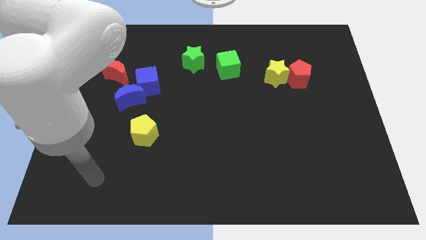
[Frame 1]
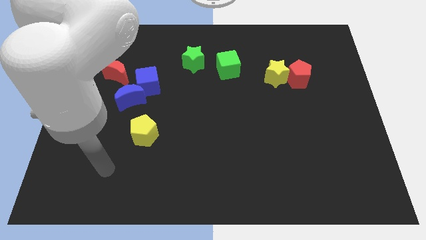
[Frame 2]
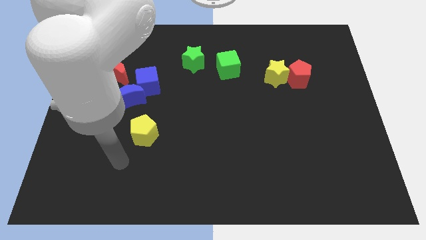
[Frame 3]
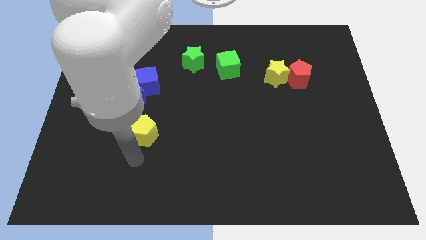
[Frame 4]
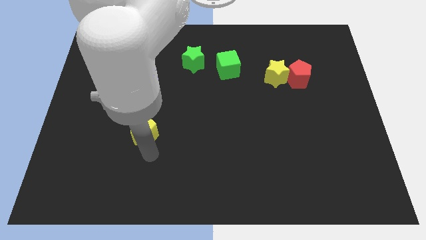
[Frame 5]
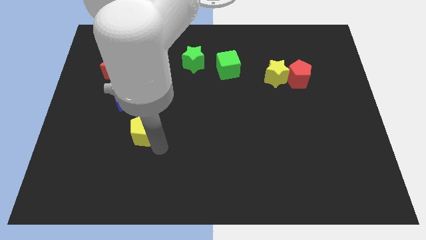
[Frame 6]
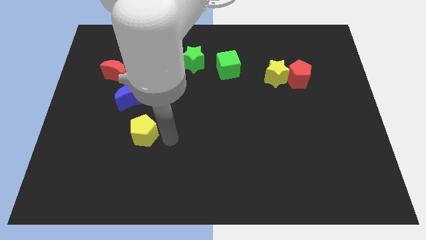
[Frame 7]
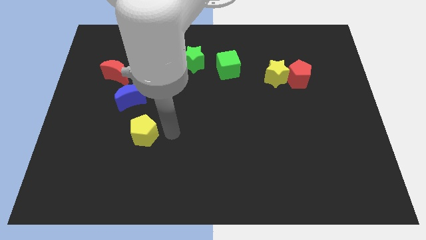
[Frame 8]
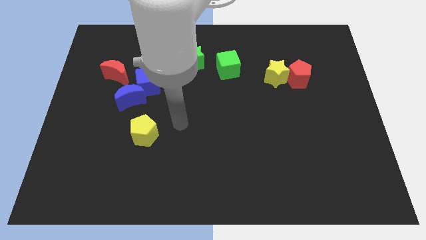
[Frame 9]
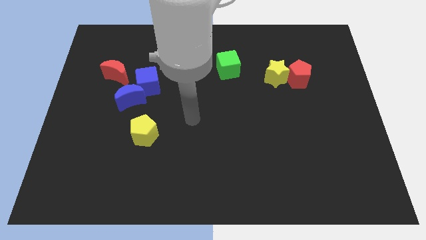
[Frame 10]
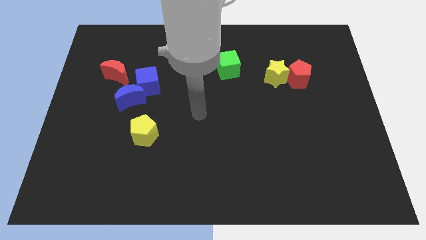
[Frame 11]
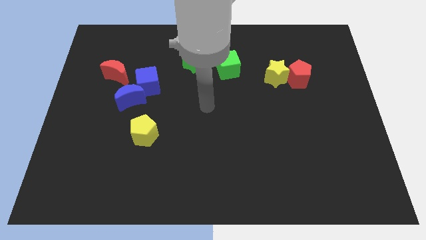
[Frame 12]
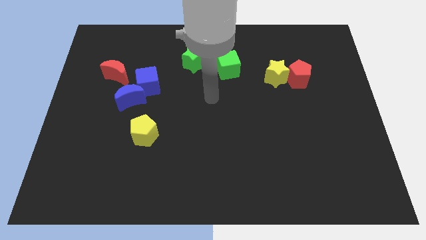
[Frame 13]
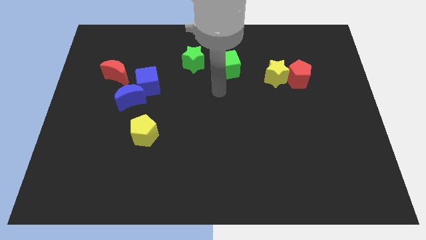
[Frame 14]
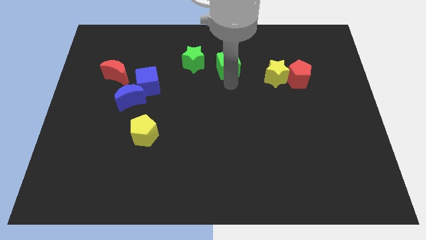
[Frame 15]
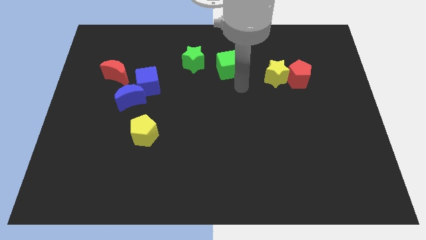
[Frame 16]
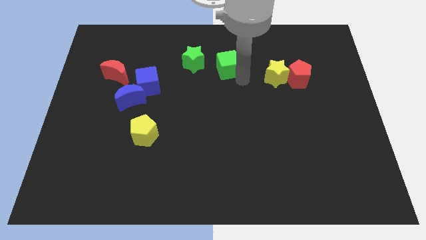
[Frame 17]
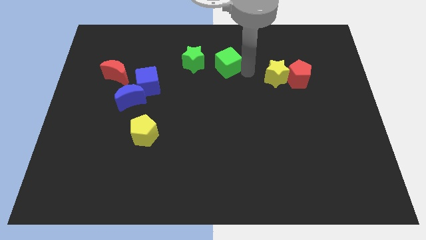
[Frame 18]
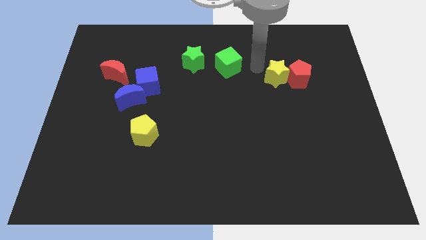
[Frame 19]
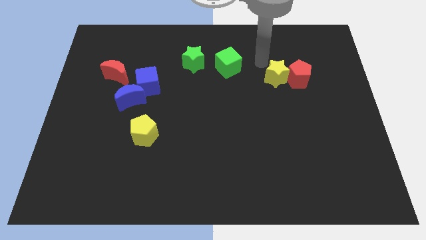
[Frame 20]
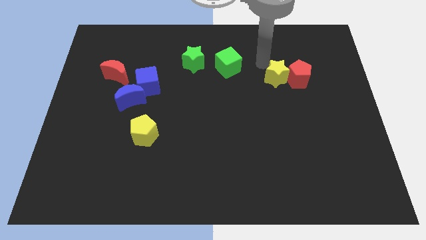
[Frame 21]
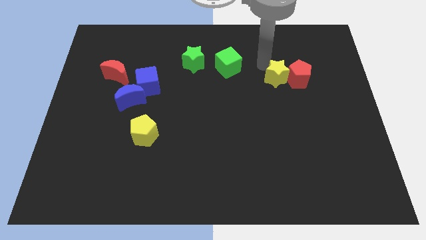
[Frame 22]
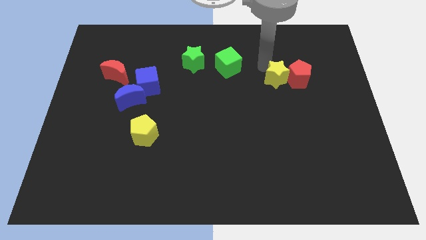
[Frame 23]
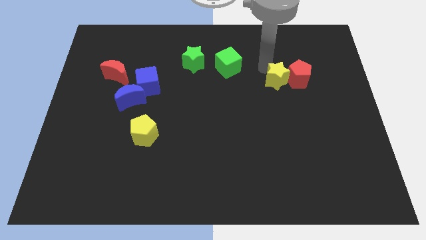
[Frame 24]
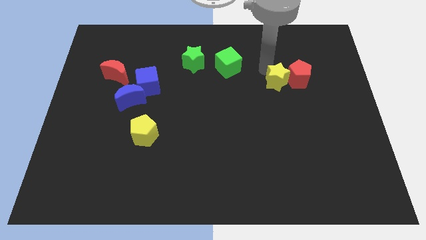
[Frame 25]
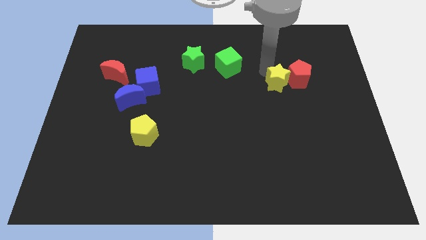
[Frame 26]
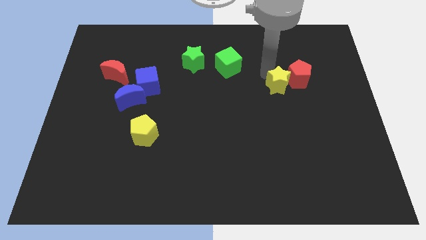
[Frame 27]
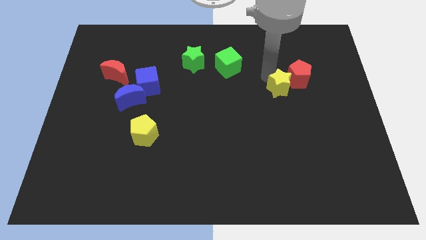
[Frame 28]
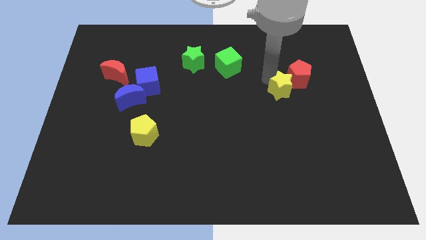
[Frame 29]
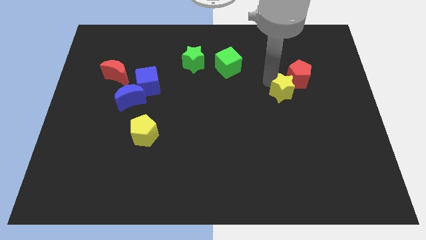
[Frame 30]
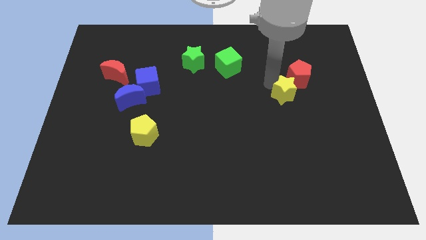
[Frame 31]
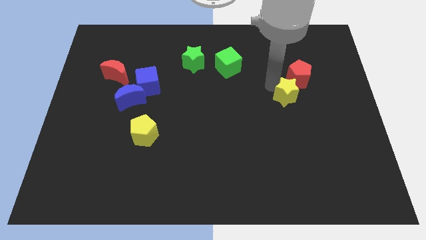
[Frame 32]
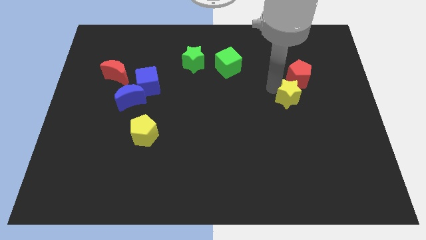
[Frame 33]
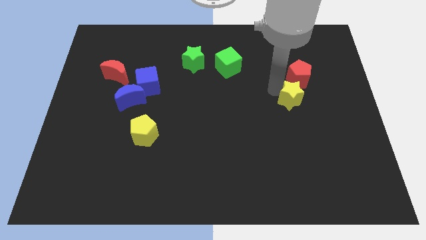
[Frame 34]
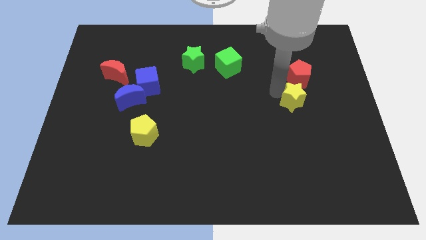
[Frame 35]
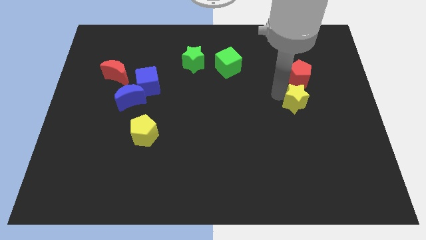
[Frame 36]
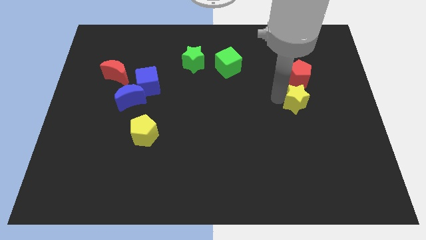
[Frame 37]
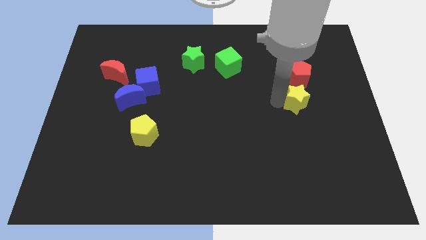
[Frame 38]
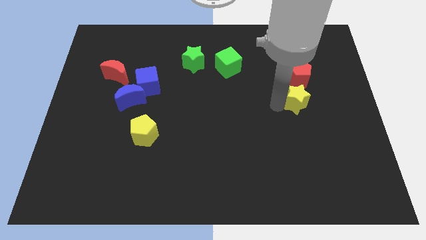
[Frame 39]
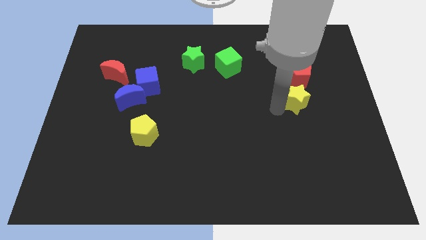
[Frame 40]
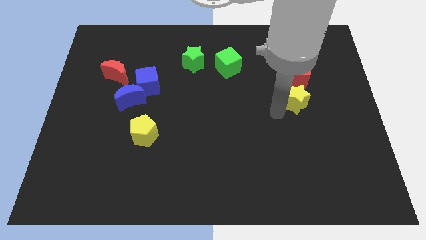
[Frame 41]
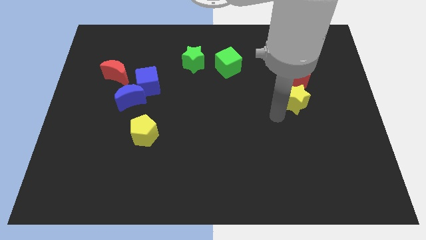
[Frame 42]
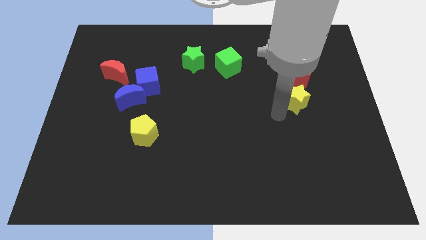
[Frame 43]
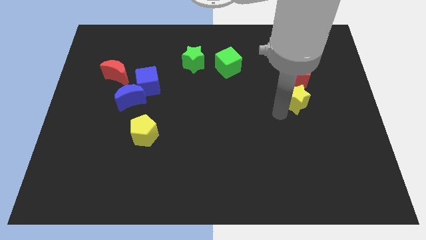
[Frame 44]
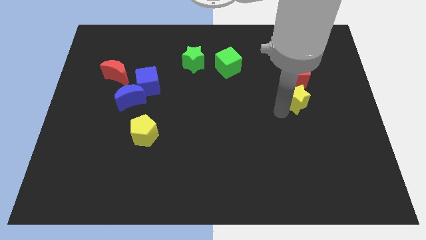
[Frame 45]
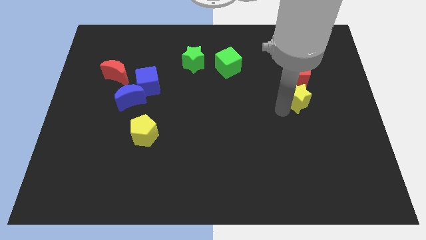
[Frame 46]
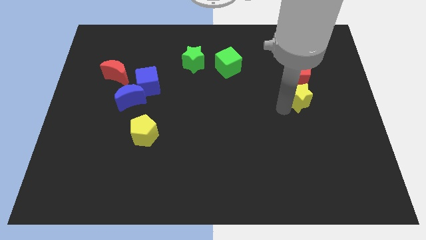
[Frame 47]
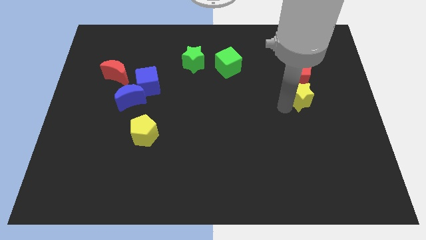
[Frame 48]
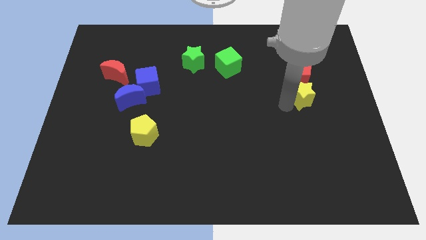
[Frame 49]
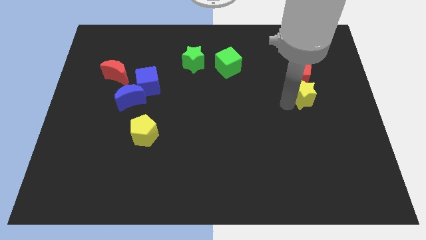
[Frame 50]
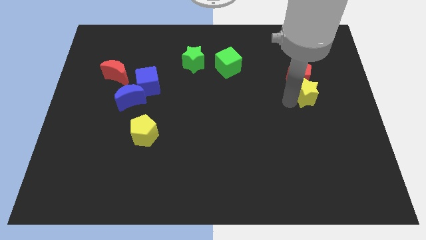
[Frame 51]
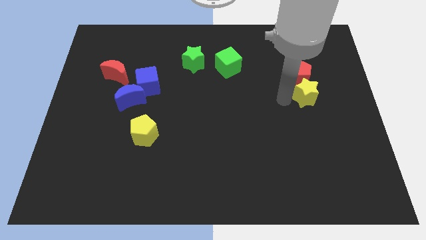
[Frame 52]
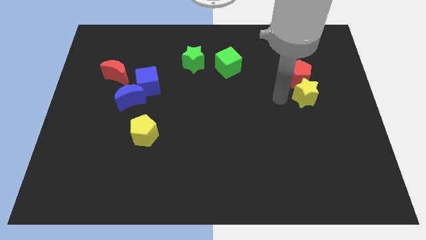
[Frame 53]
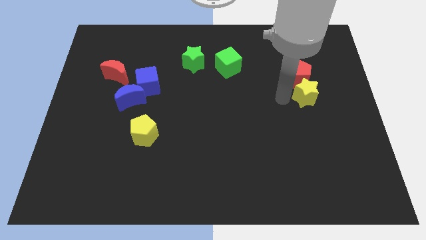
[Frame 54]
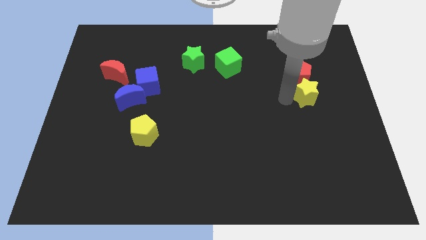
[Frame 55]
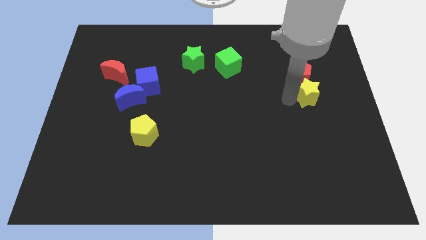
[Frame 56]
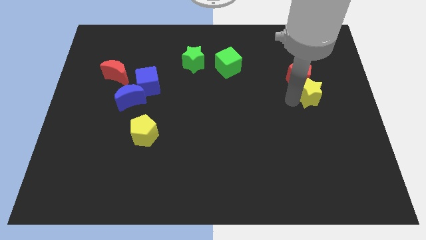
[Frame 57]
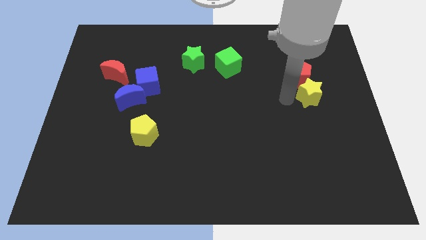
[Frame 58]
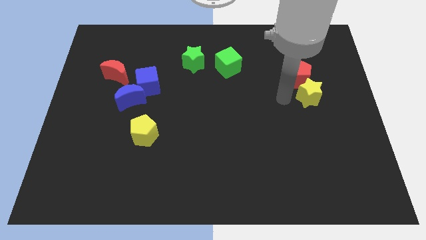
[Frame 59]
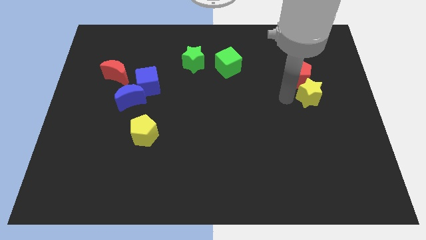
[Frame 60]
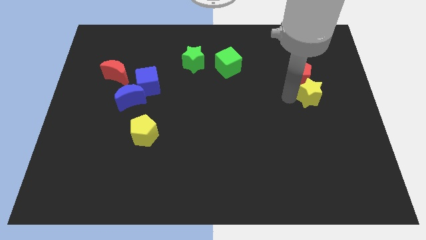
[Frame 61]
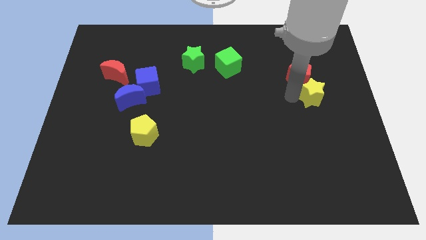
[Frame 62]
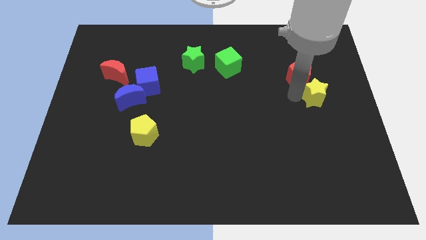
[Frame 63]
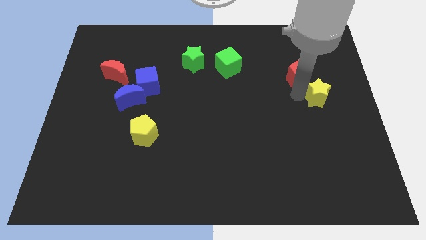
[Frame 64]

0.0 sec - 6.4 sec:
move the yellow star to the center right

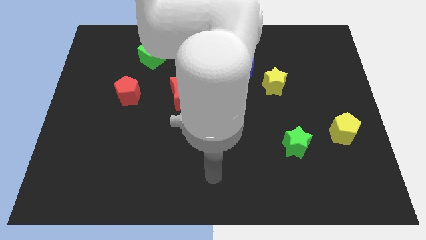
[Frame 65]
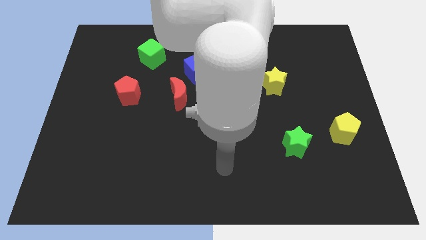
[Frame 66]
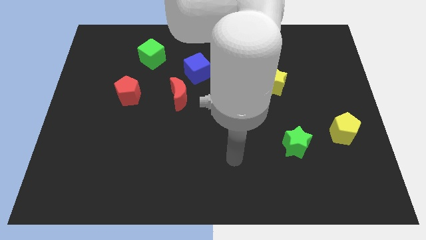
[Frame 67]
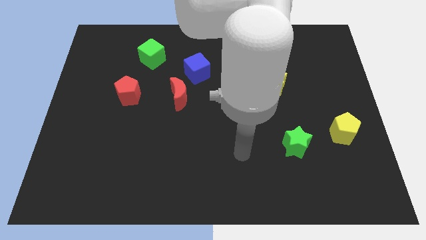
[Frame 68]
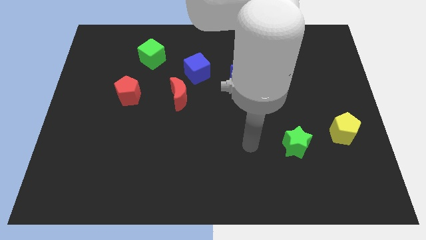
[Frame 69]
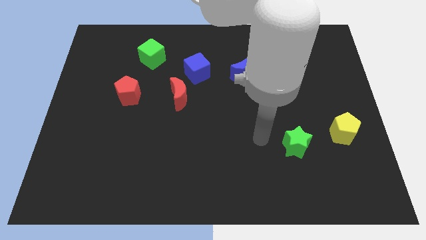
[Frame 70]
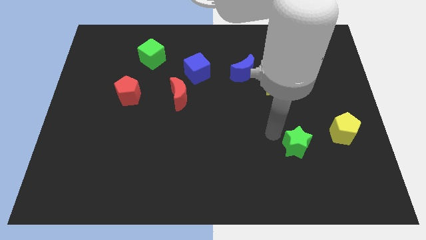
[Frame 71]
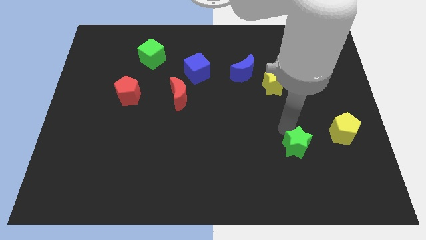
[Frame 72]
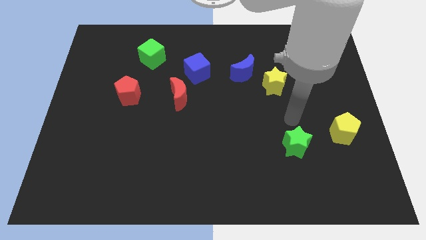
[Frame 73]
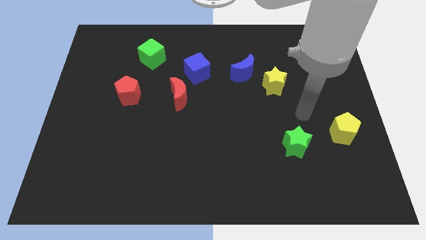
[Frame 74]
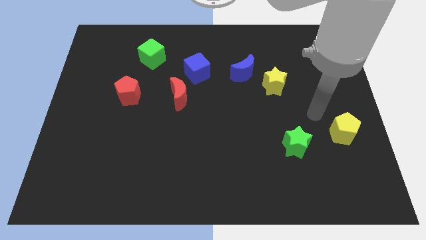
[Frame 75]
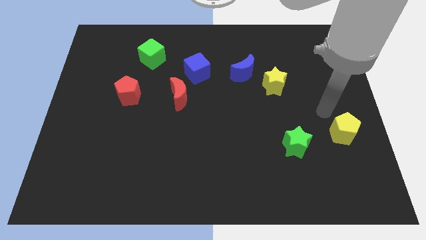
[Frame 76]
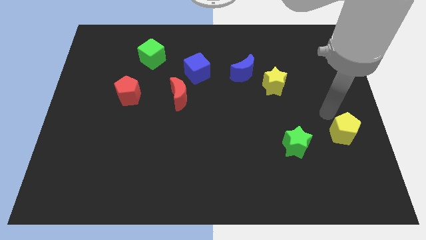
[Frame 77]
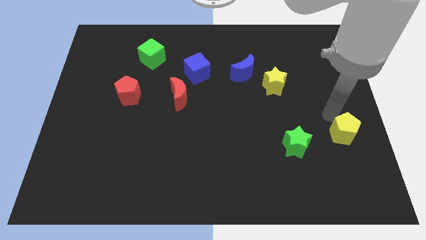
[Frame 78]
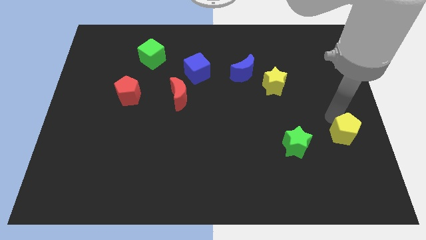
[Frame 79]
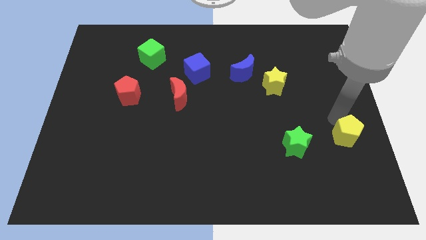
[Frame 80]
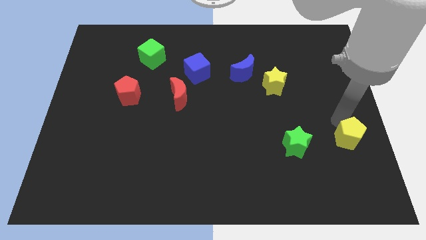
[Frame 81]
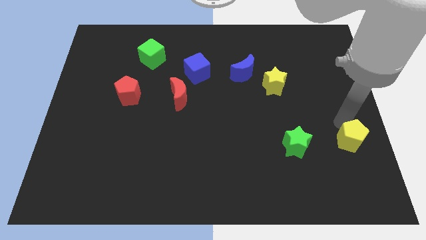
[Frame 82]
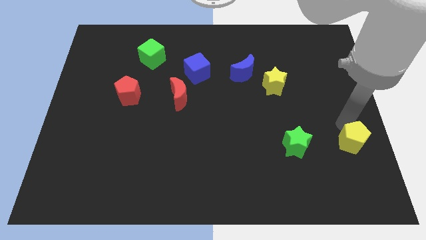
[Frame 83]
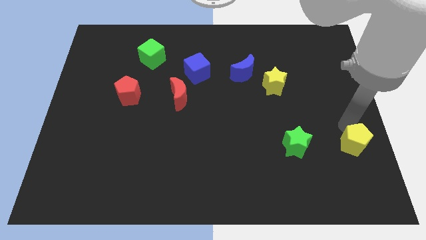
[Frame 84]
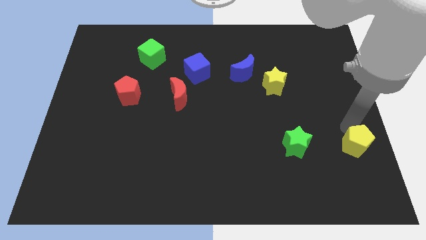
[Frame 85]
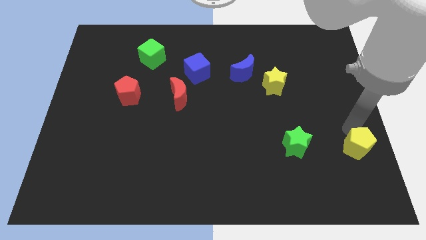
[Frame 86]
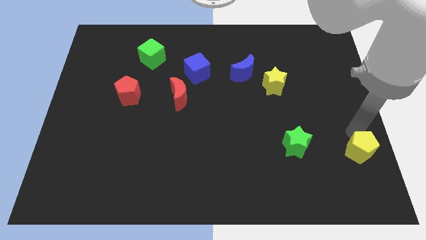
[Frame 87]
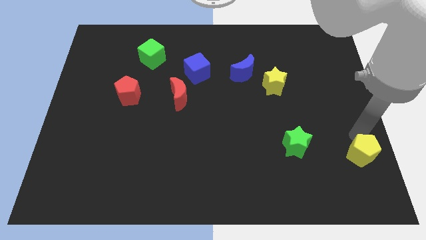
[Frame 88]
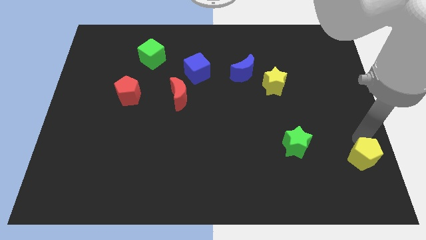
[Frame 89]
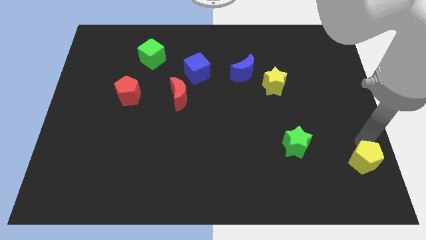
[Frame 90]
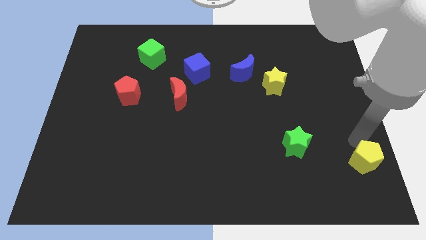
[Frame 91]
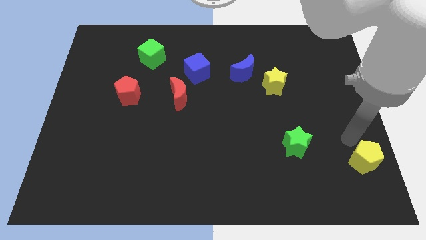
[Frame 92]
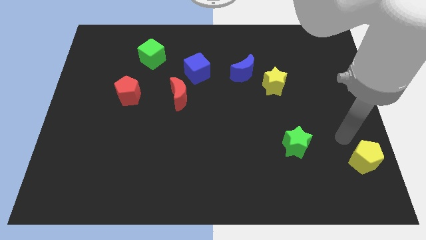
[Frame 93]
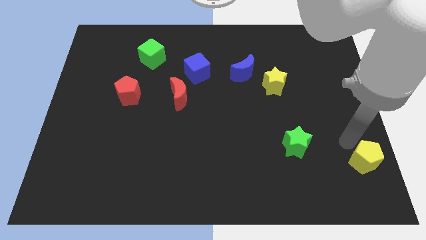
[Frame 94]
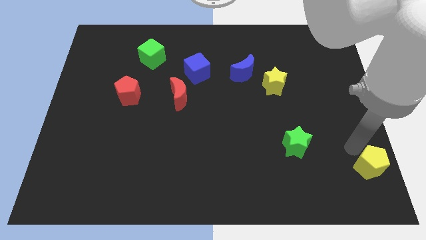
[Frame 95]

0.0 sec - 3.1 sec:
put the yellow pentagon to the lower right corner
